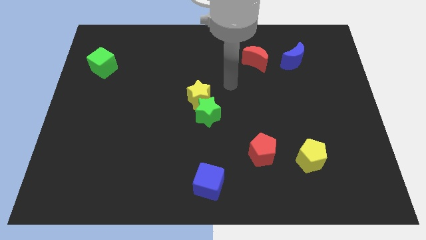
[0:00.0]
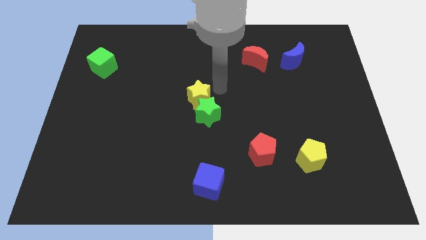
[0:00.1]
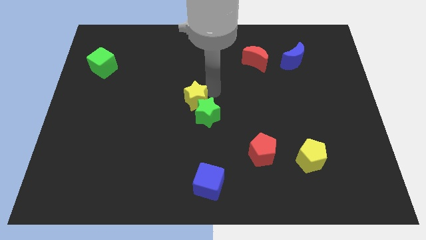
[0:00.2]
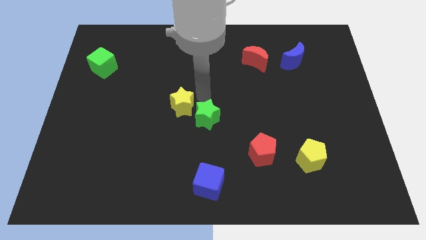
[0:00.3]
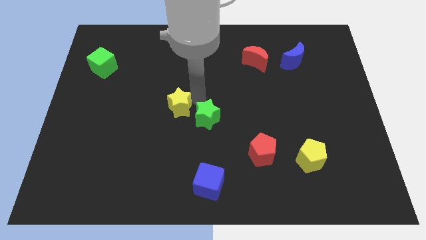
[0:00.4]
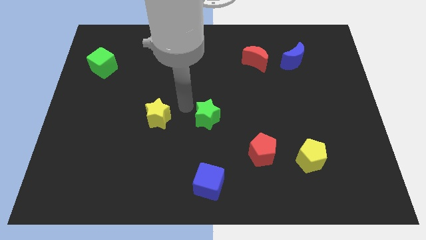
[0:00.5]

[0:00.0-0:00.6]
pull the green star apart from the yellow star

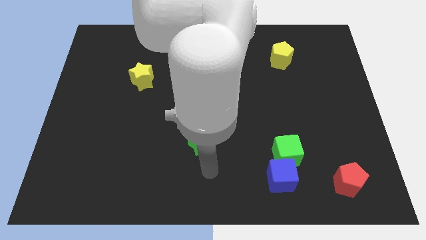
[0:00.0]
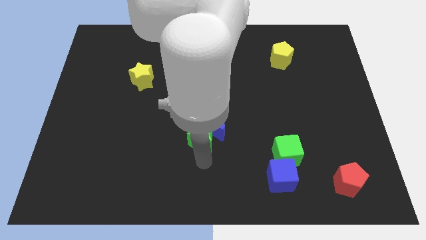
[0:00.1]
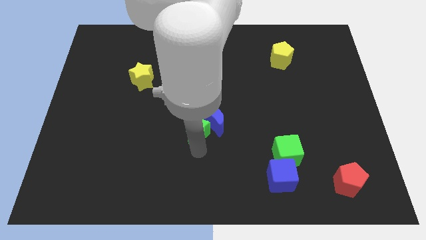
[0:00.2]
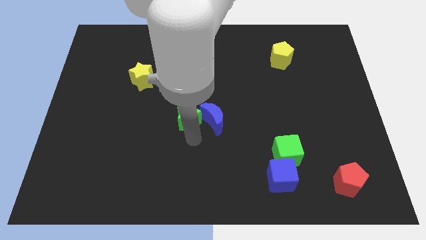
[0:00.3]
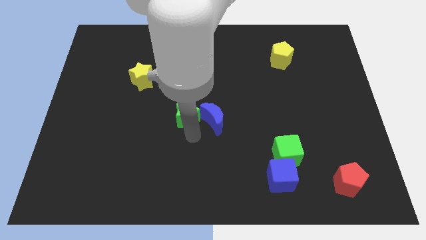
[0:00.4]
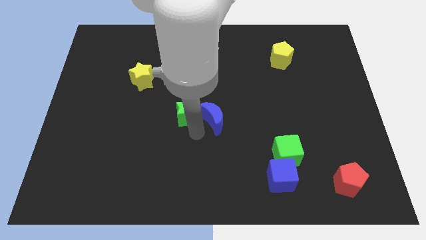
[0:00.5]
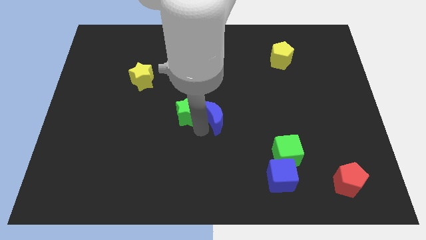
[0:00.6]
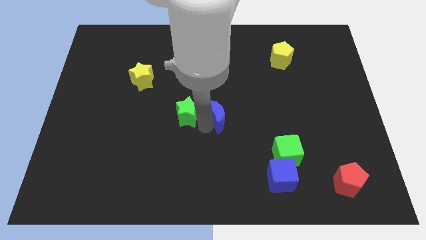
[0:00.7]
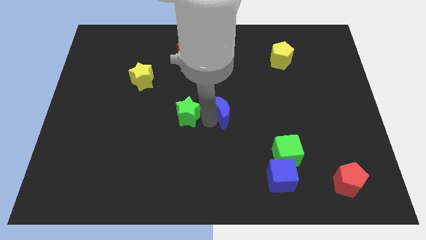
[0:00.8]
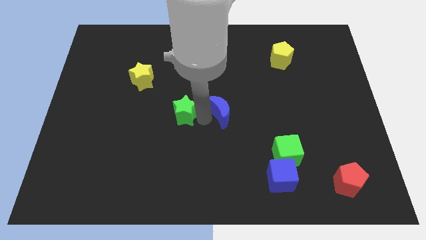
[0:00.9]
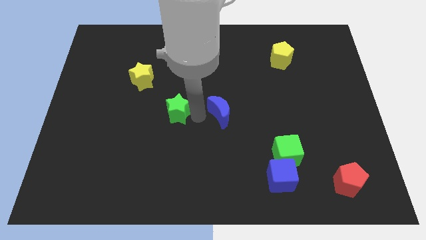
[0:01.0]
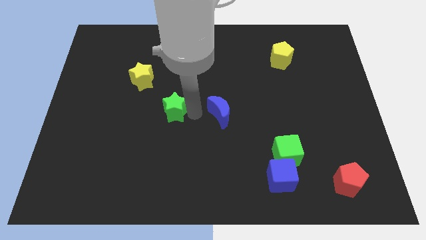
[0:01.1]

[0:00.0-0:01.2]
separate the blue moon from the green star

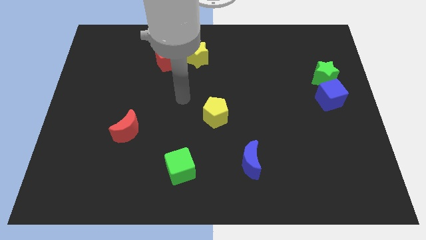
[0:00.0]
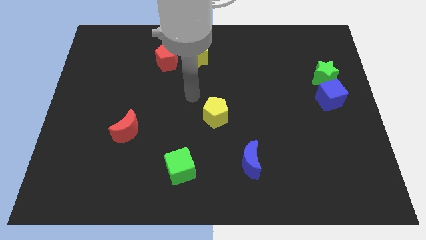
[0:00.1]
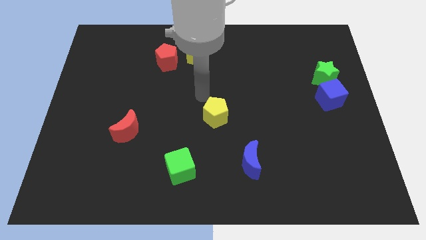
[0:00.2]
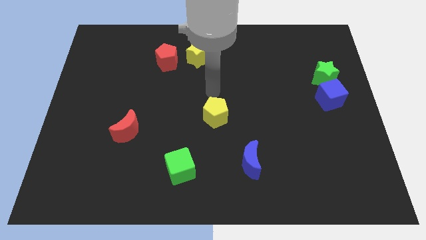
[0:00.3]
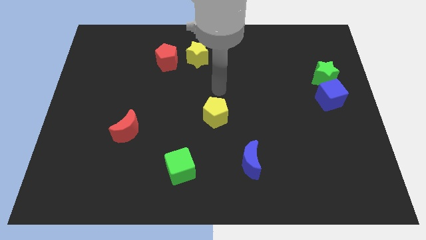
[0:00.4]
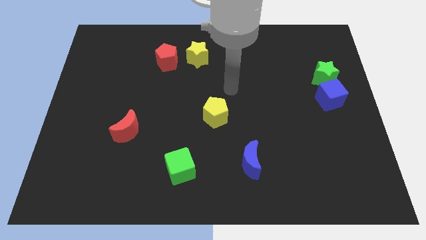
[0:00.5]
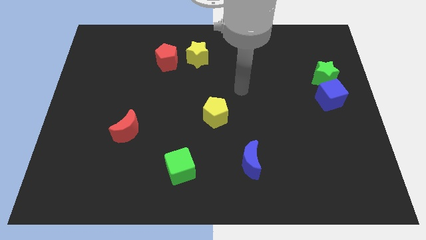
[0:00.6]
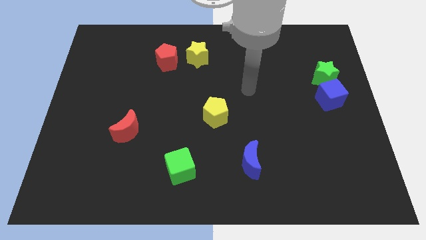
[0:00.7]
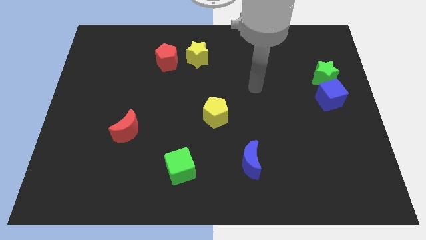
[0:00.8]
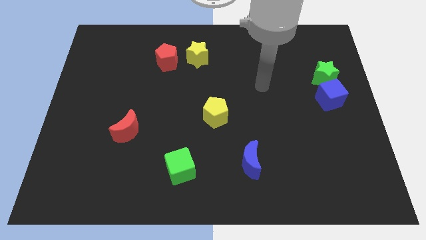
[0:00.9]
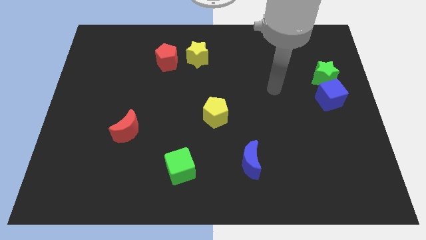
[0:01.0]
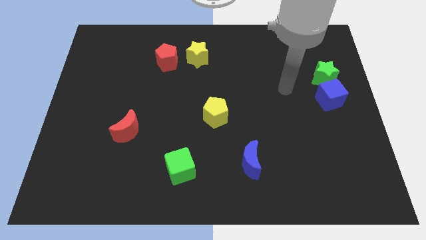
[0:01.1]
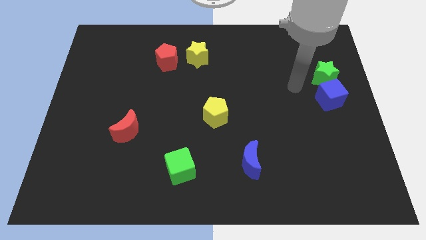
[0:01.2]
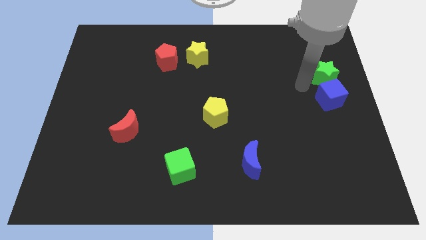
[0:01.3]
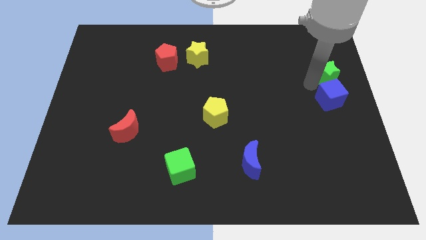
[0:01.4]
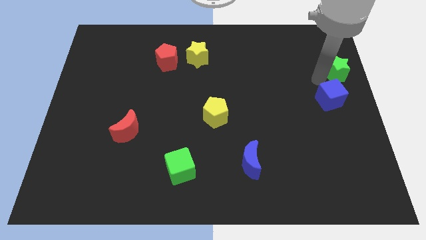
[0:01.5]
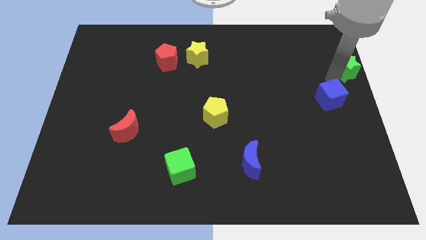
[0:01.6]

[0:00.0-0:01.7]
separate the blue cube from the green star

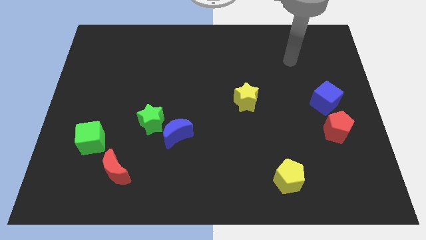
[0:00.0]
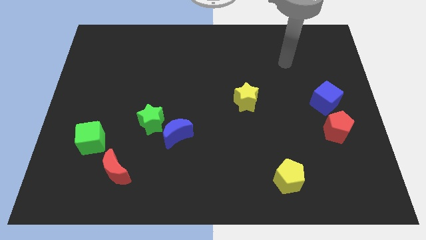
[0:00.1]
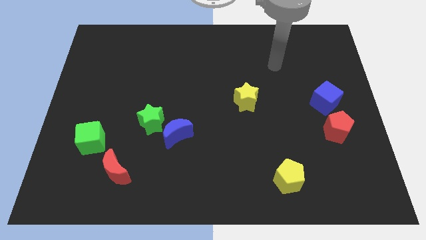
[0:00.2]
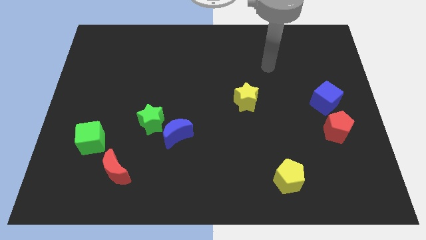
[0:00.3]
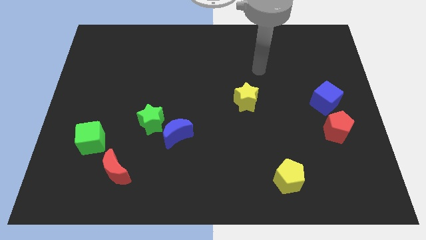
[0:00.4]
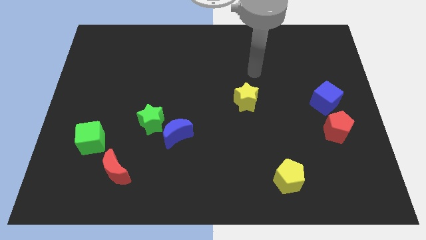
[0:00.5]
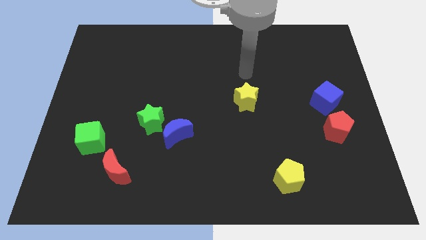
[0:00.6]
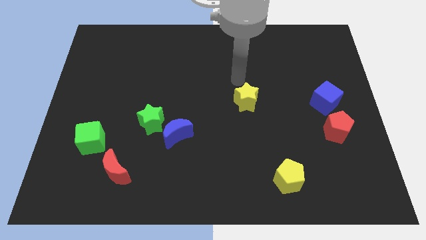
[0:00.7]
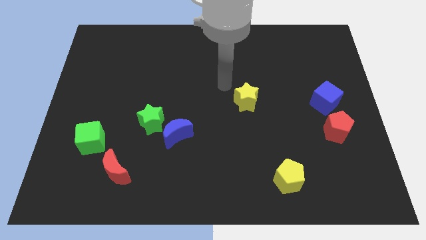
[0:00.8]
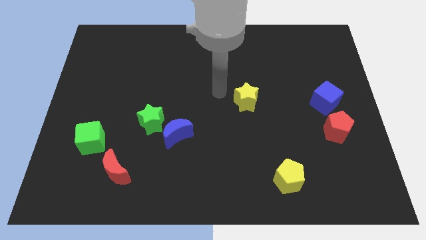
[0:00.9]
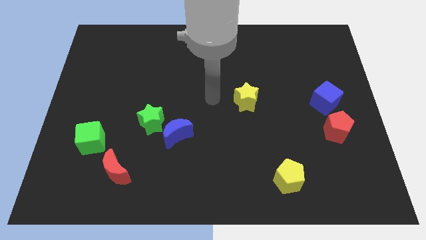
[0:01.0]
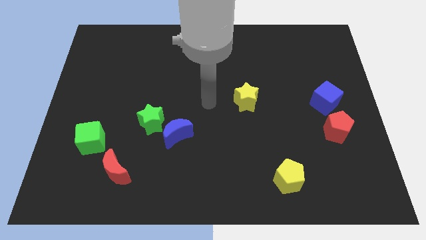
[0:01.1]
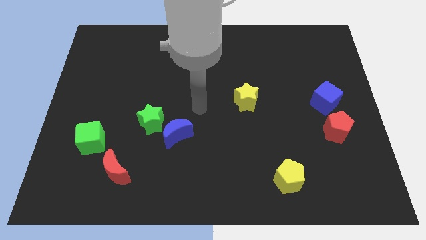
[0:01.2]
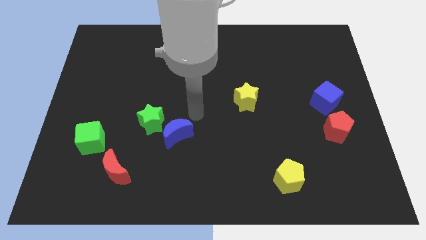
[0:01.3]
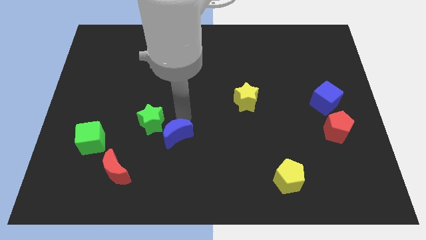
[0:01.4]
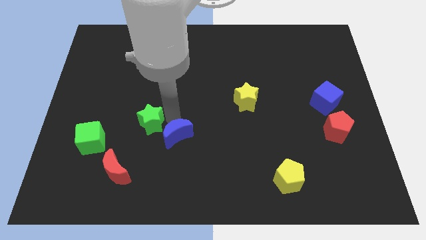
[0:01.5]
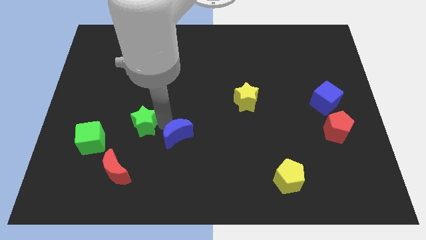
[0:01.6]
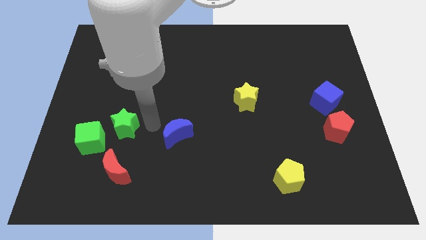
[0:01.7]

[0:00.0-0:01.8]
pull the blue moon apart from the green star

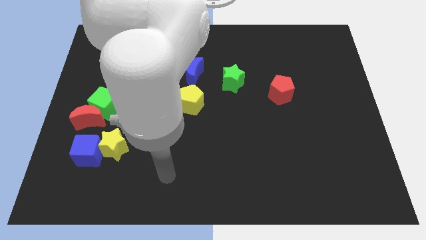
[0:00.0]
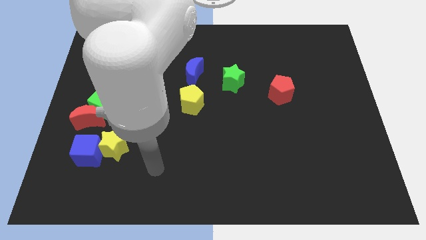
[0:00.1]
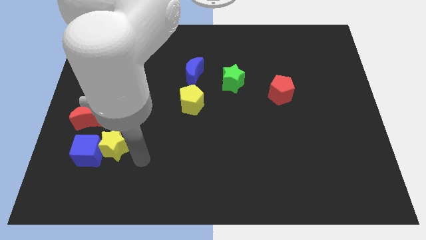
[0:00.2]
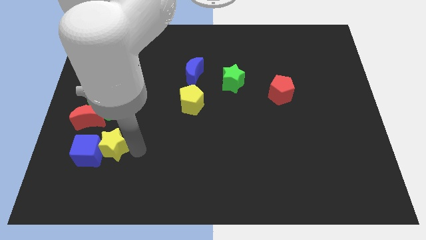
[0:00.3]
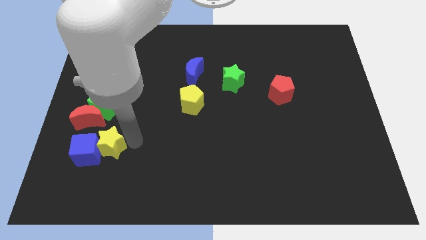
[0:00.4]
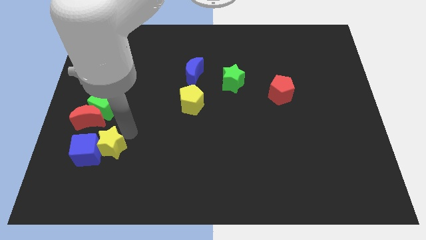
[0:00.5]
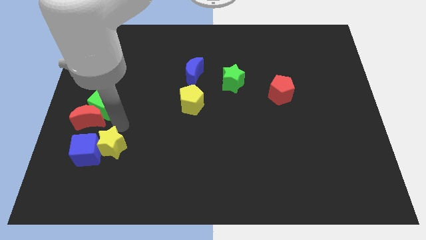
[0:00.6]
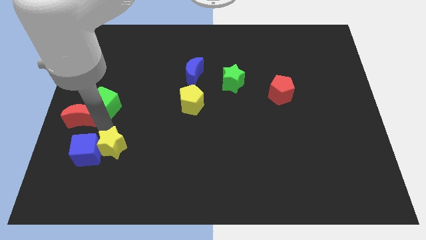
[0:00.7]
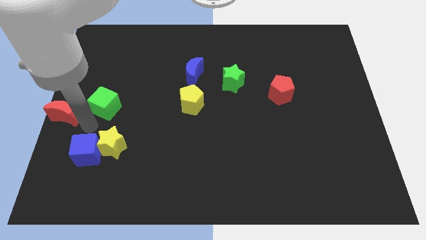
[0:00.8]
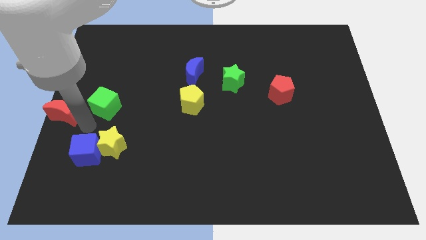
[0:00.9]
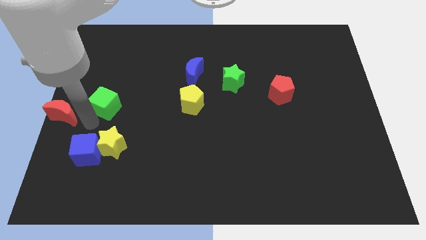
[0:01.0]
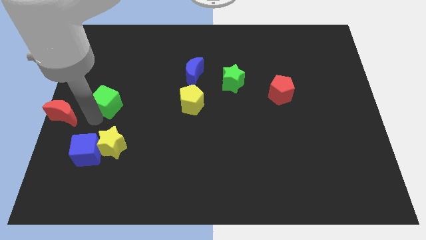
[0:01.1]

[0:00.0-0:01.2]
separate the green cube from the red moon

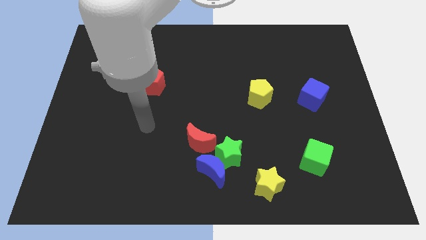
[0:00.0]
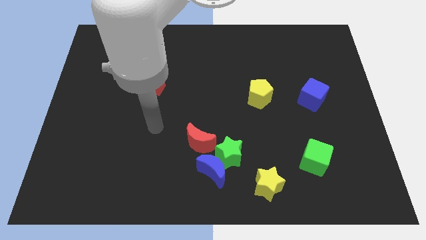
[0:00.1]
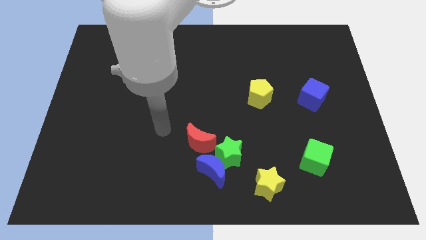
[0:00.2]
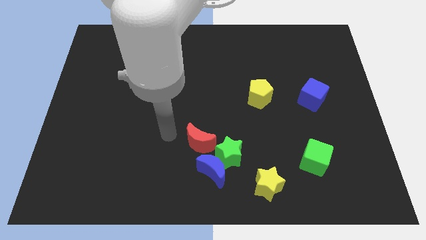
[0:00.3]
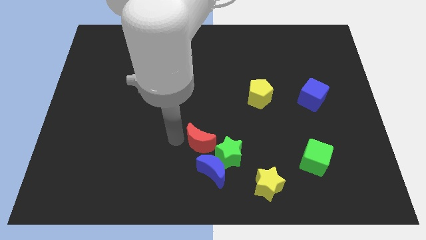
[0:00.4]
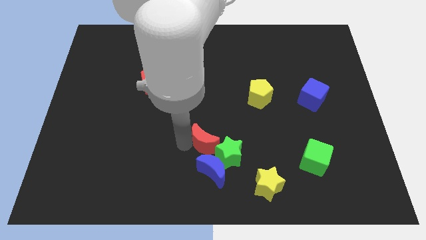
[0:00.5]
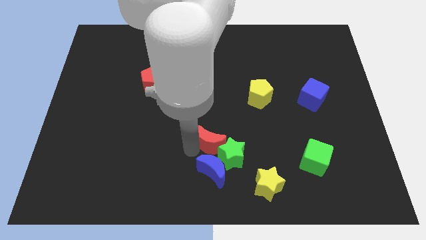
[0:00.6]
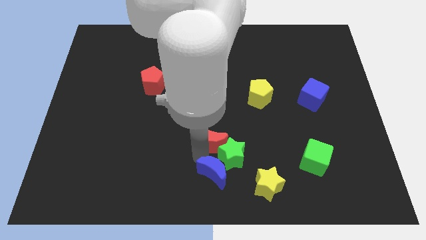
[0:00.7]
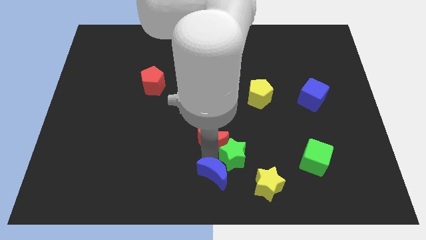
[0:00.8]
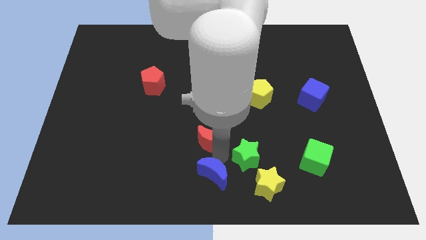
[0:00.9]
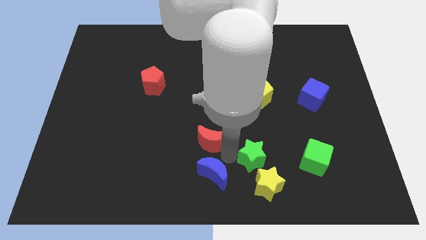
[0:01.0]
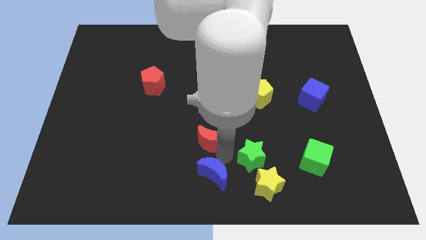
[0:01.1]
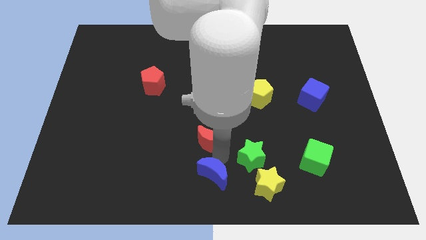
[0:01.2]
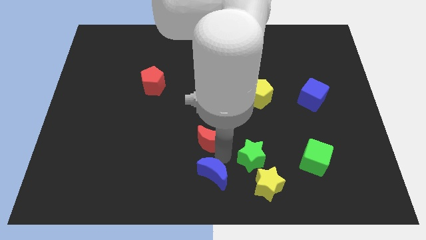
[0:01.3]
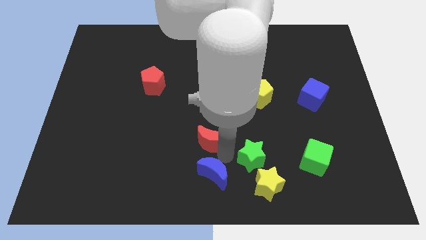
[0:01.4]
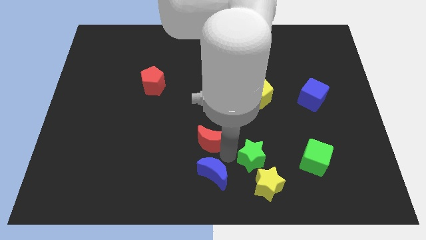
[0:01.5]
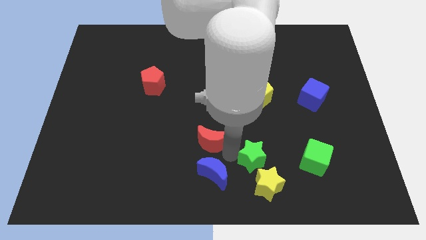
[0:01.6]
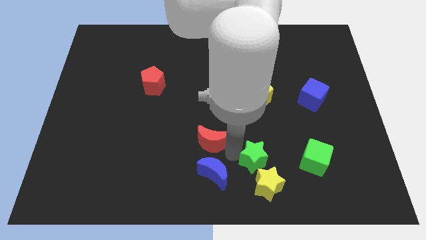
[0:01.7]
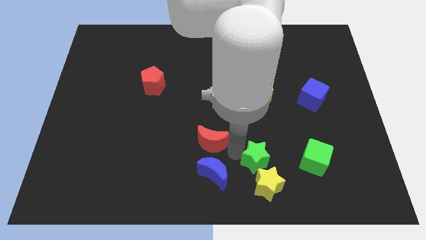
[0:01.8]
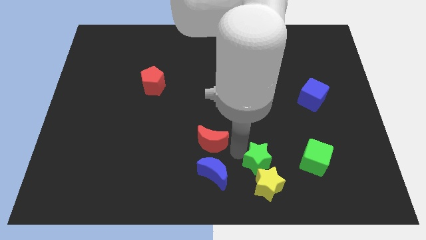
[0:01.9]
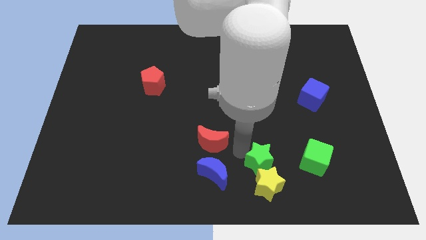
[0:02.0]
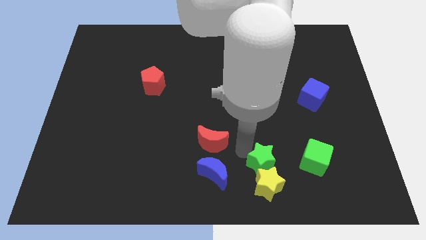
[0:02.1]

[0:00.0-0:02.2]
move the green star away from the blue moon and red moon

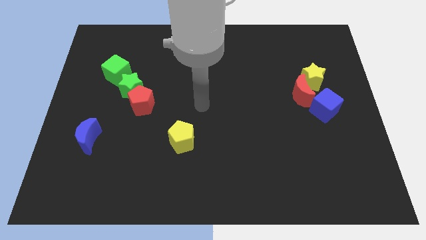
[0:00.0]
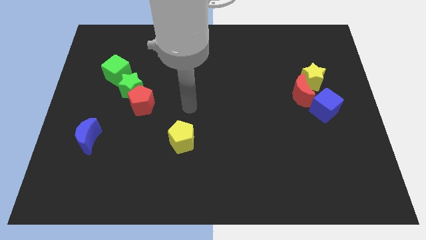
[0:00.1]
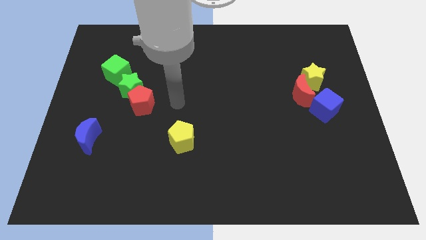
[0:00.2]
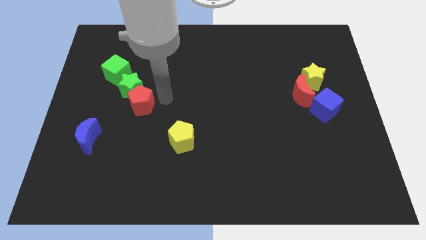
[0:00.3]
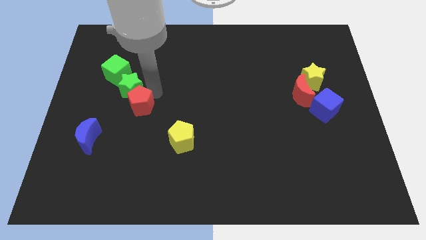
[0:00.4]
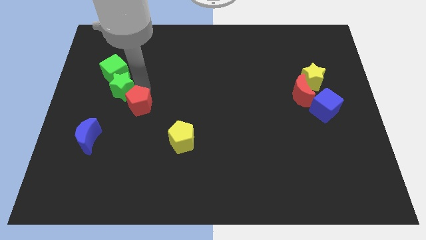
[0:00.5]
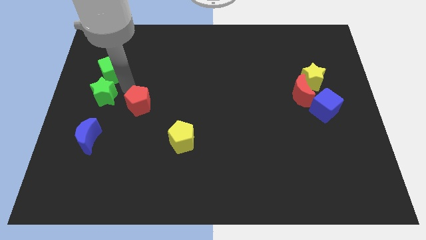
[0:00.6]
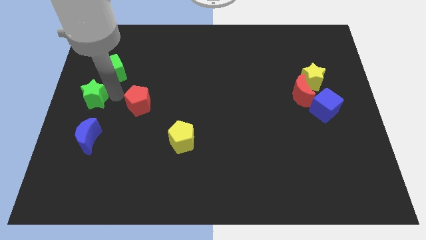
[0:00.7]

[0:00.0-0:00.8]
separate the red pentagon from the green star
